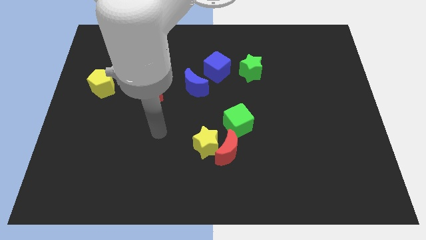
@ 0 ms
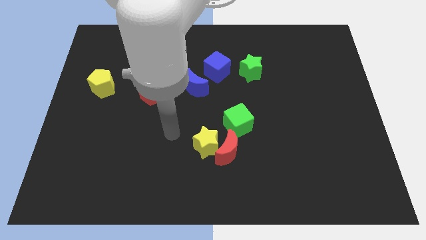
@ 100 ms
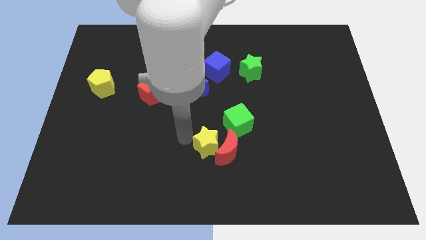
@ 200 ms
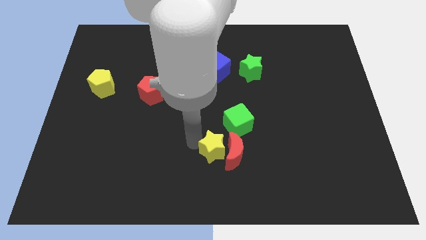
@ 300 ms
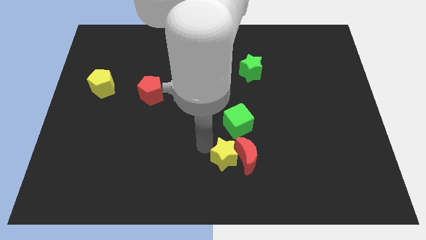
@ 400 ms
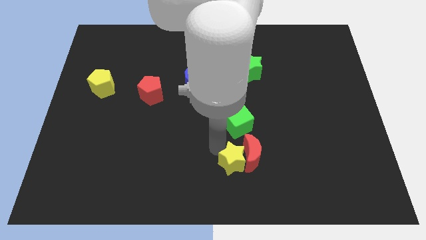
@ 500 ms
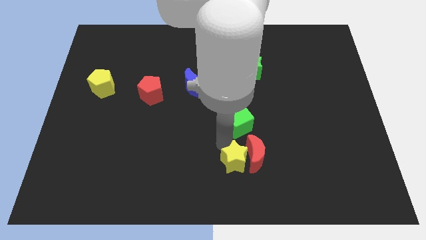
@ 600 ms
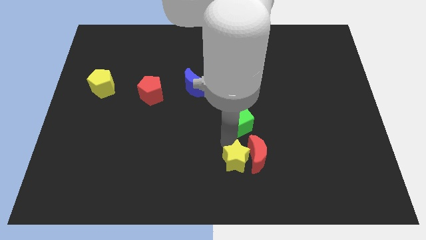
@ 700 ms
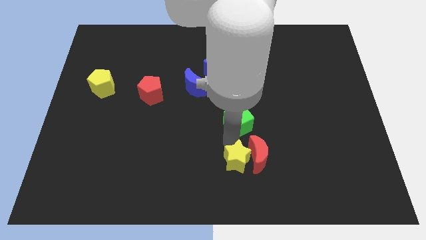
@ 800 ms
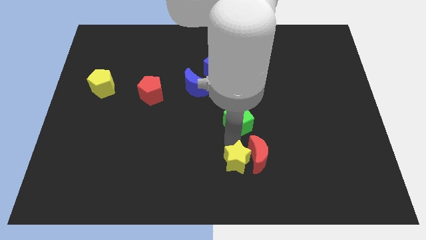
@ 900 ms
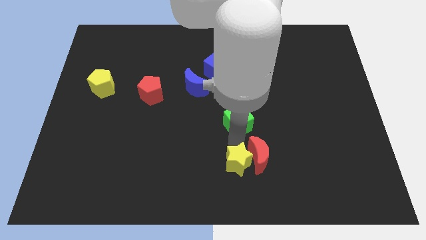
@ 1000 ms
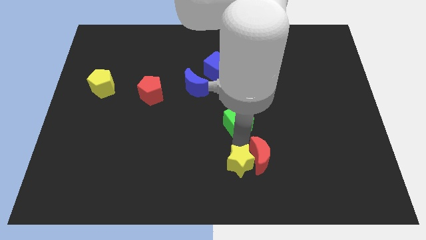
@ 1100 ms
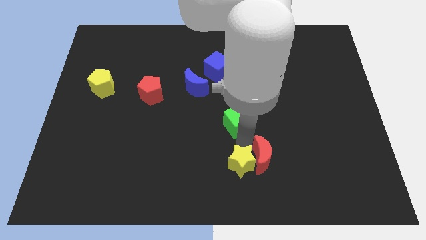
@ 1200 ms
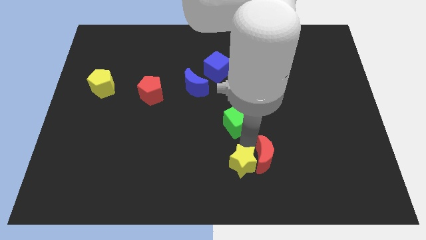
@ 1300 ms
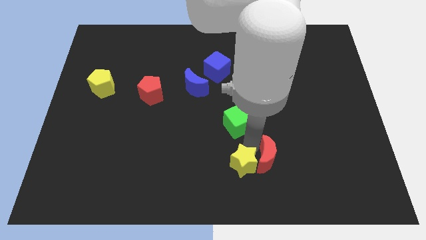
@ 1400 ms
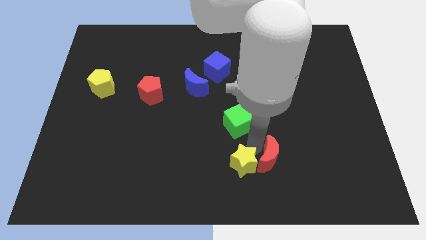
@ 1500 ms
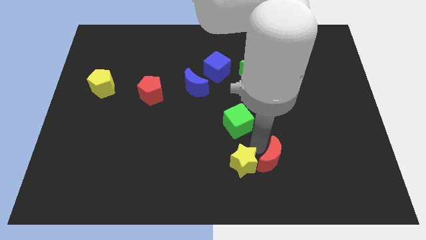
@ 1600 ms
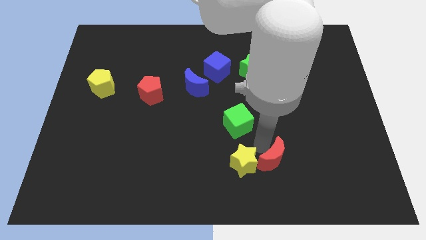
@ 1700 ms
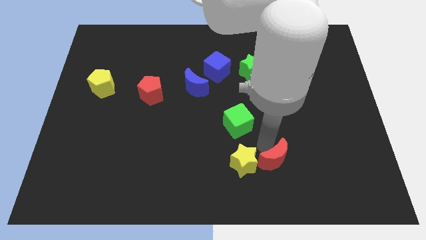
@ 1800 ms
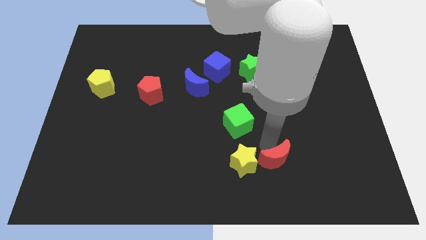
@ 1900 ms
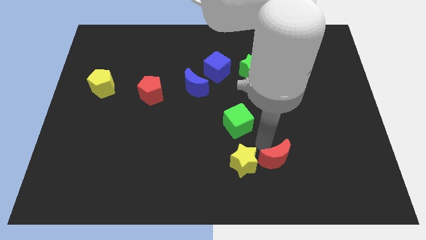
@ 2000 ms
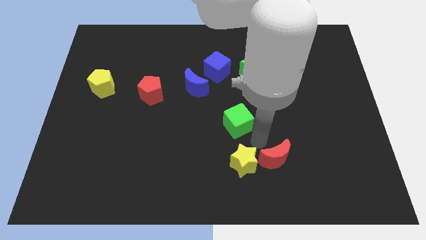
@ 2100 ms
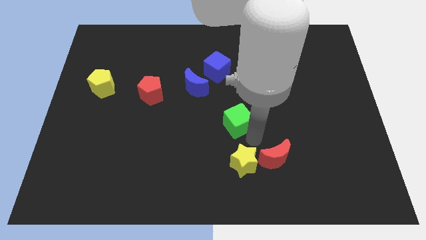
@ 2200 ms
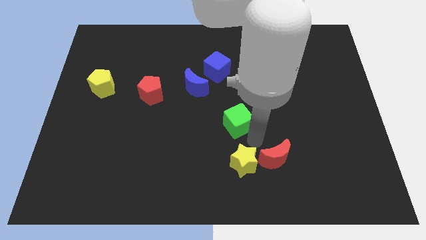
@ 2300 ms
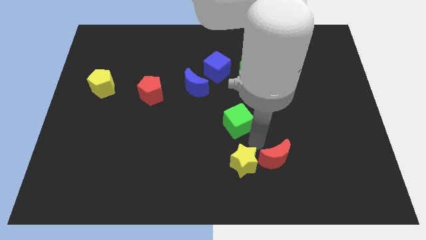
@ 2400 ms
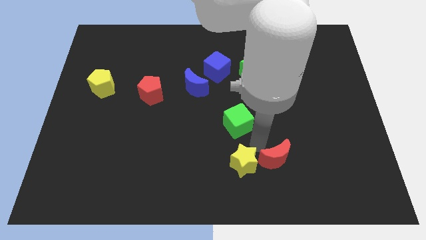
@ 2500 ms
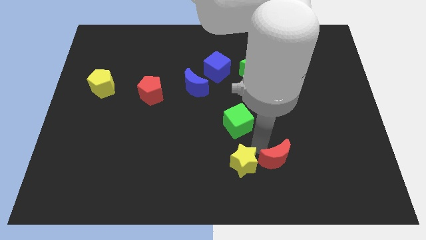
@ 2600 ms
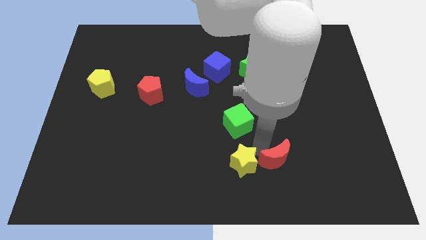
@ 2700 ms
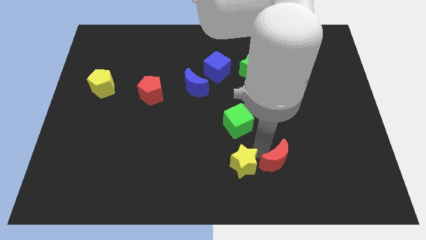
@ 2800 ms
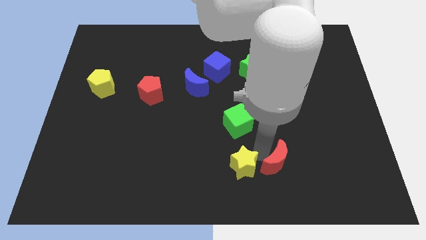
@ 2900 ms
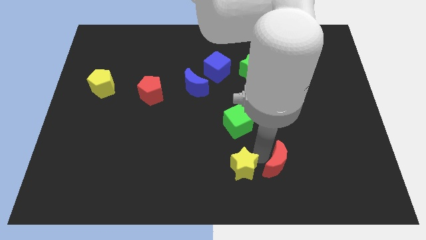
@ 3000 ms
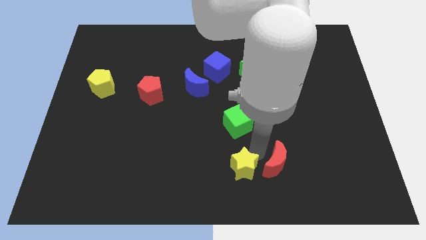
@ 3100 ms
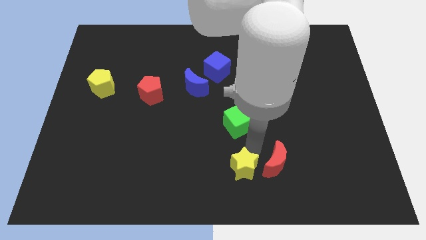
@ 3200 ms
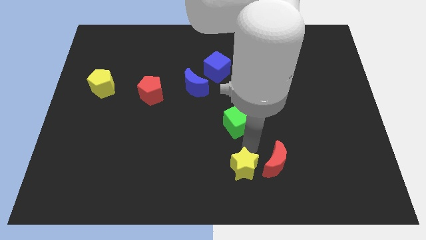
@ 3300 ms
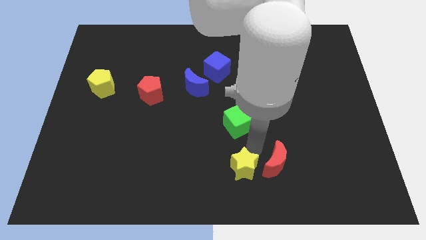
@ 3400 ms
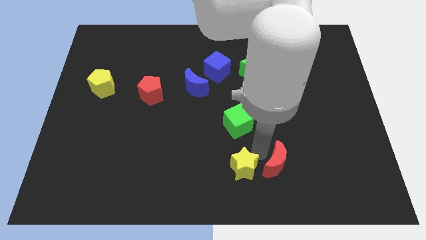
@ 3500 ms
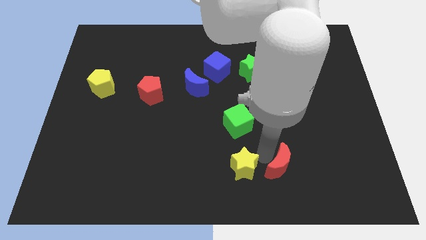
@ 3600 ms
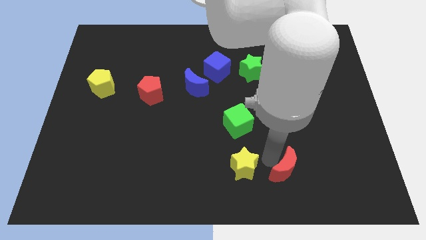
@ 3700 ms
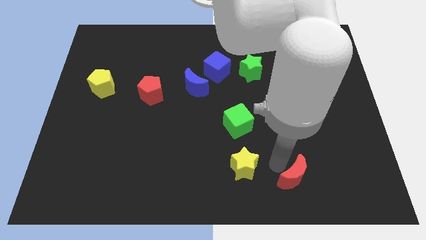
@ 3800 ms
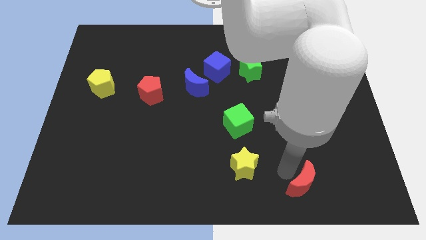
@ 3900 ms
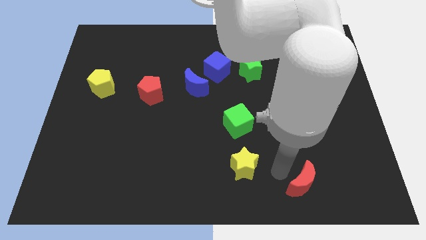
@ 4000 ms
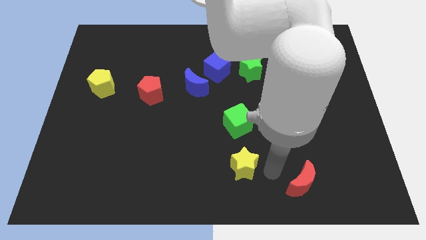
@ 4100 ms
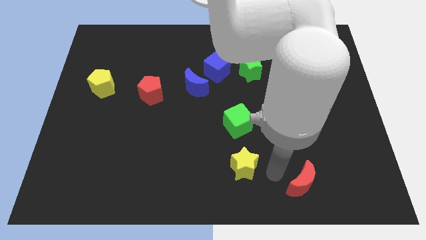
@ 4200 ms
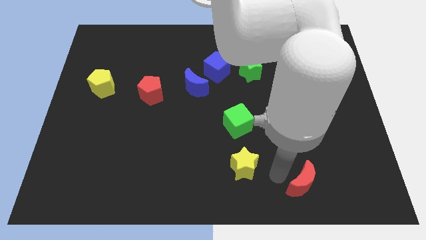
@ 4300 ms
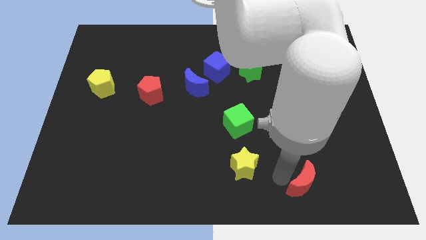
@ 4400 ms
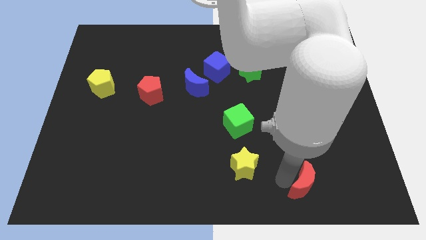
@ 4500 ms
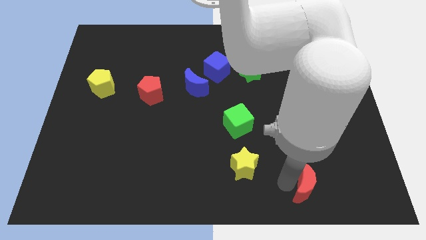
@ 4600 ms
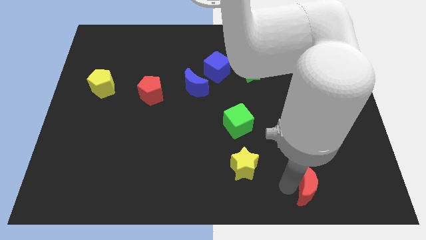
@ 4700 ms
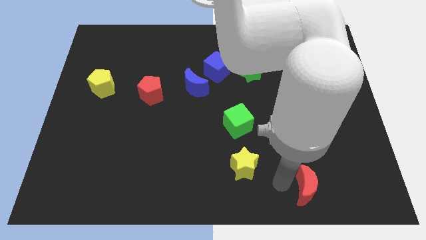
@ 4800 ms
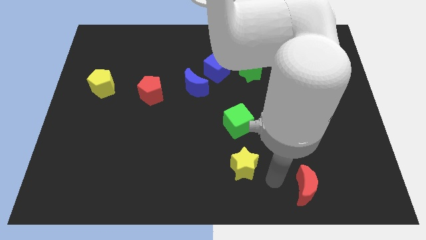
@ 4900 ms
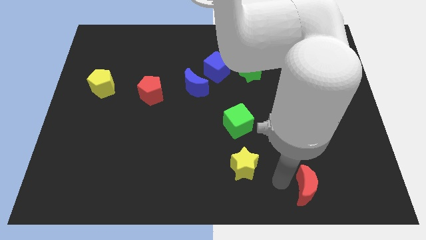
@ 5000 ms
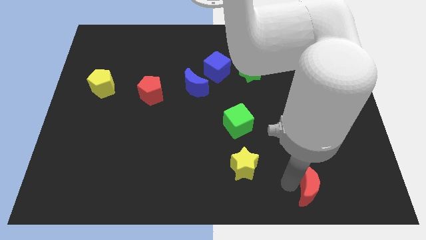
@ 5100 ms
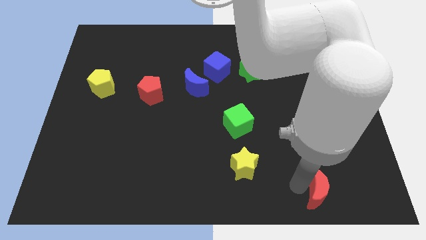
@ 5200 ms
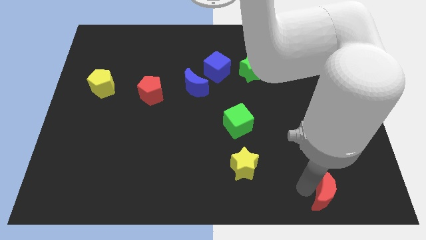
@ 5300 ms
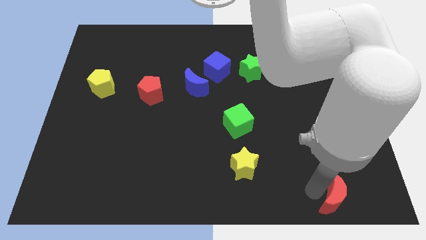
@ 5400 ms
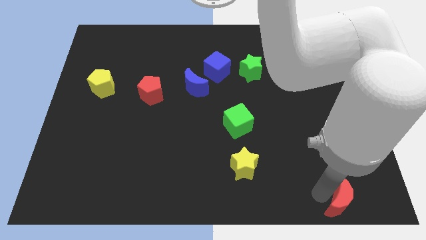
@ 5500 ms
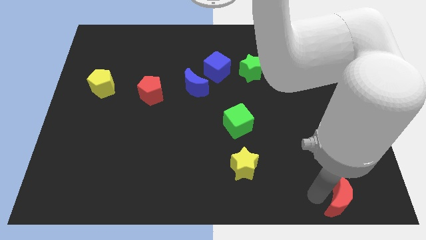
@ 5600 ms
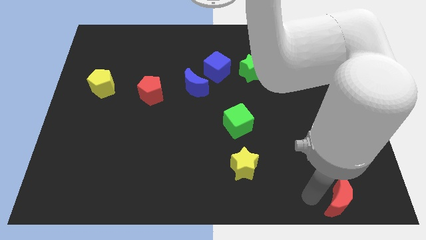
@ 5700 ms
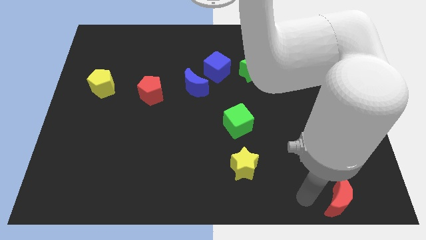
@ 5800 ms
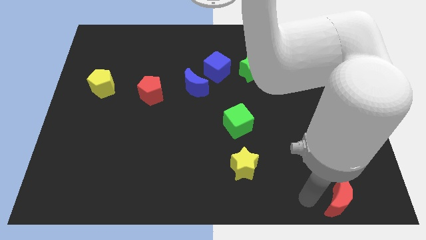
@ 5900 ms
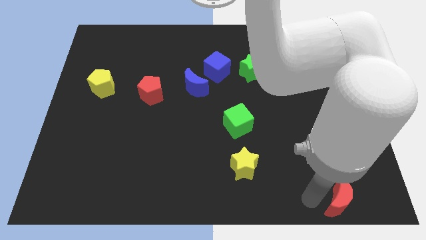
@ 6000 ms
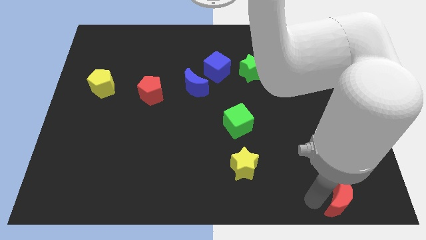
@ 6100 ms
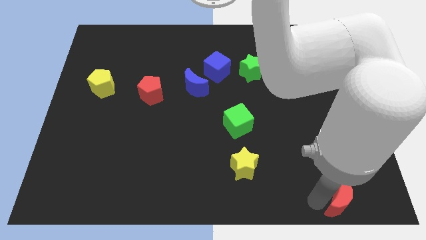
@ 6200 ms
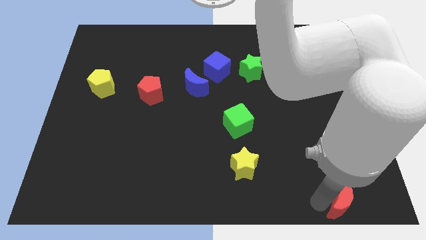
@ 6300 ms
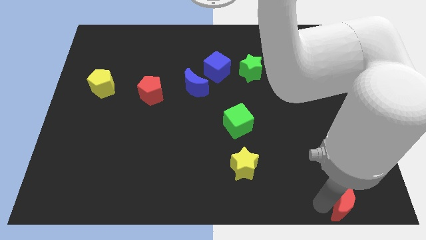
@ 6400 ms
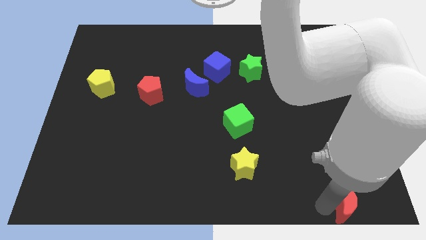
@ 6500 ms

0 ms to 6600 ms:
put the red moon to the bottom right of the board
